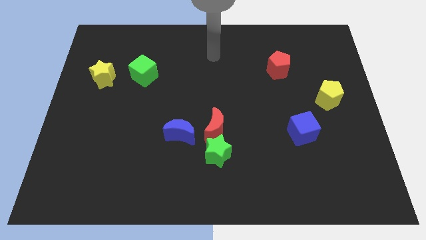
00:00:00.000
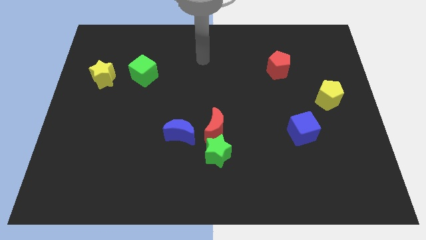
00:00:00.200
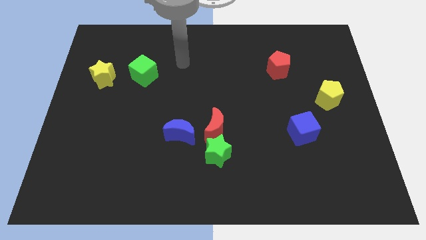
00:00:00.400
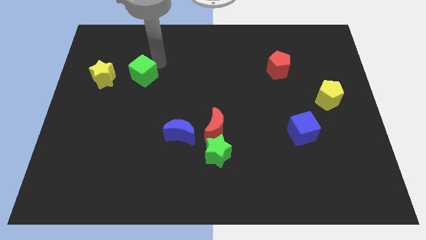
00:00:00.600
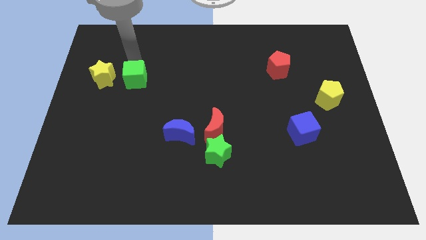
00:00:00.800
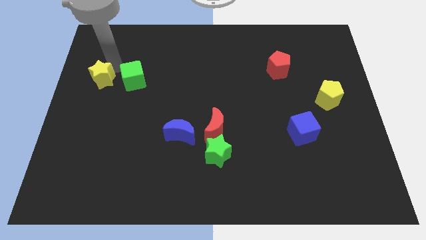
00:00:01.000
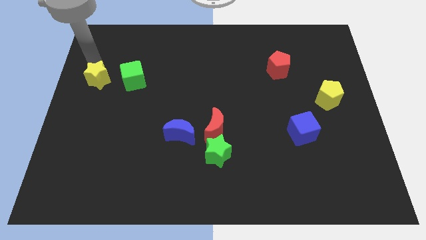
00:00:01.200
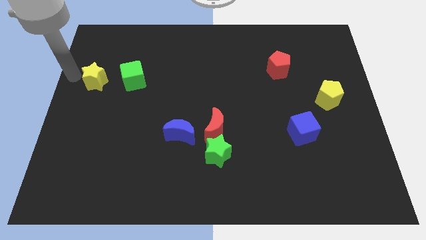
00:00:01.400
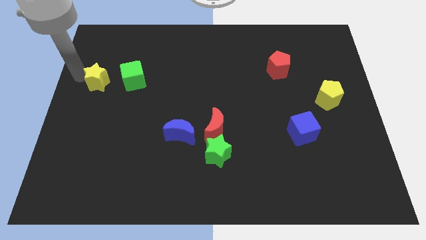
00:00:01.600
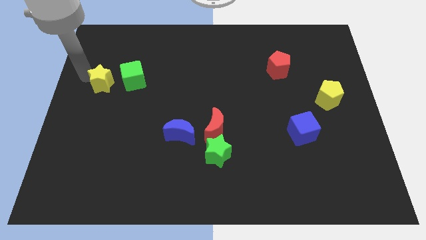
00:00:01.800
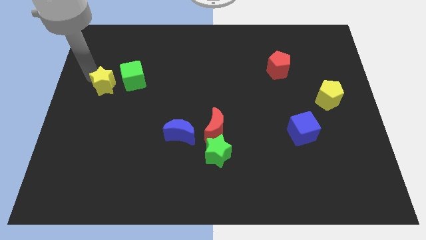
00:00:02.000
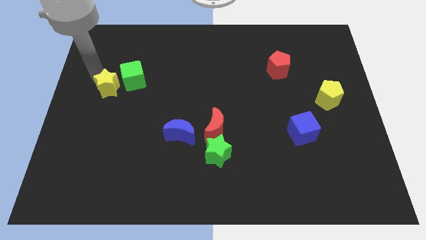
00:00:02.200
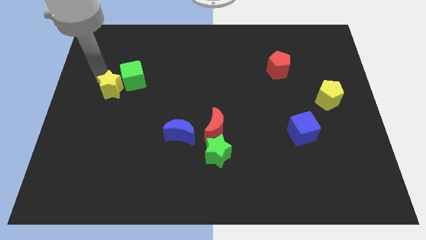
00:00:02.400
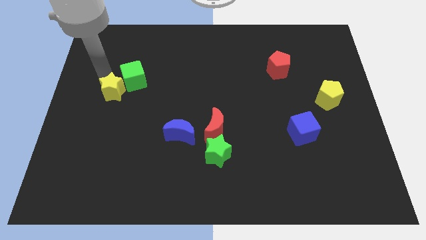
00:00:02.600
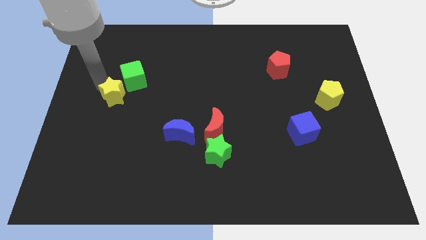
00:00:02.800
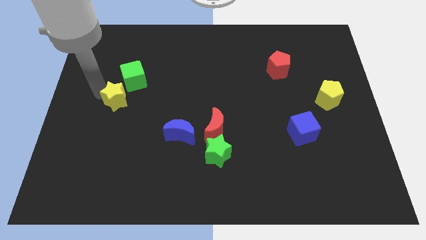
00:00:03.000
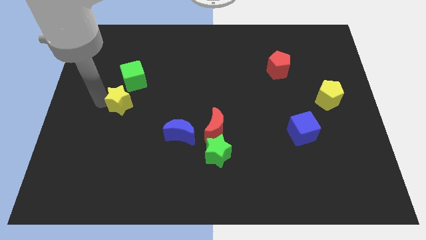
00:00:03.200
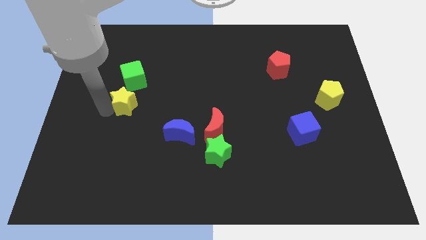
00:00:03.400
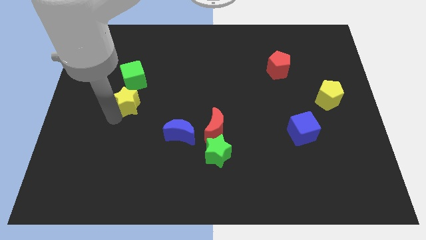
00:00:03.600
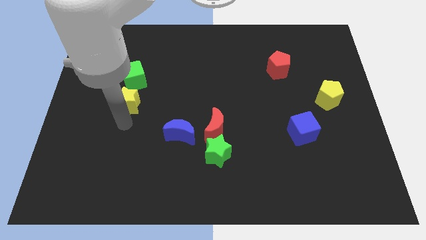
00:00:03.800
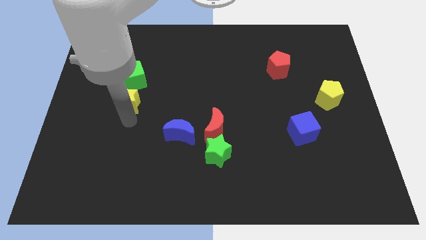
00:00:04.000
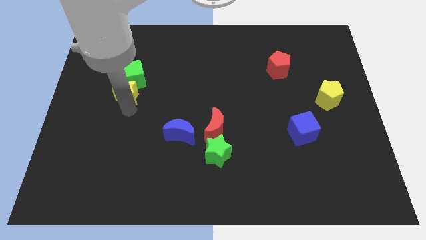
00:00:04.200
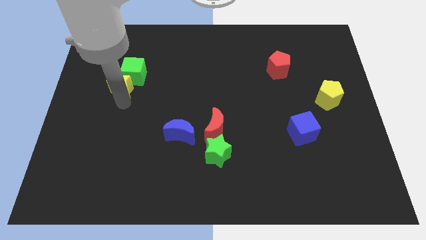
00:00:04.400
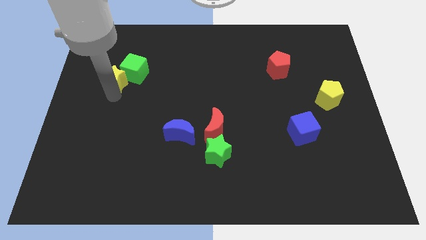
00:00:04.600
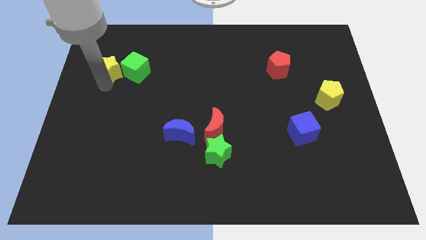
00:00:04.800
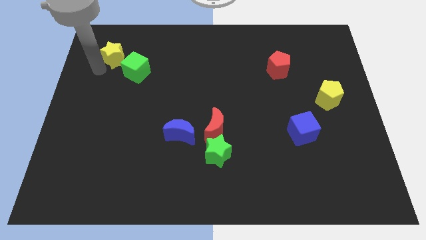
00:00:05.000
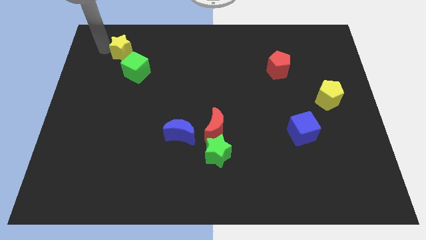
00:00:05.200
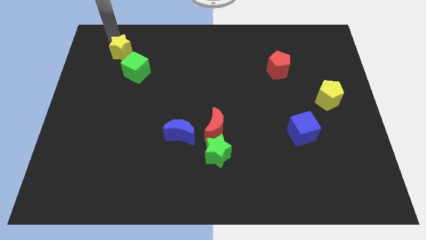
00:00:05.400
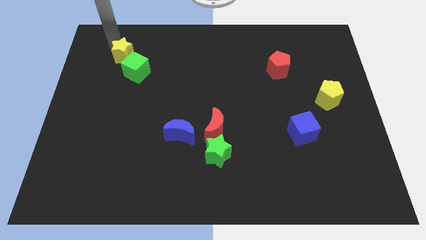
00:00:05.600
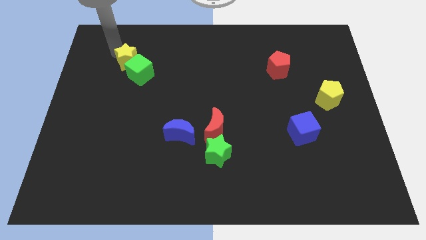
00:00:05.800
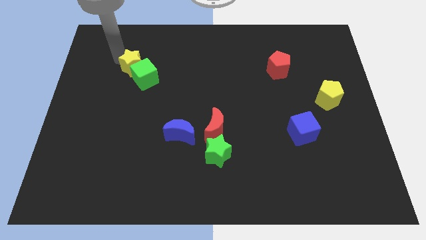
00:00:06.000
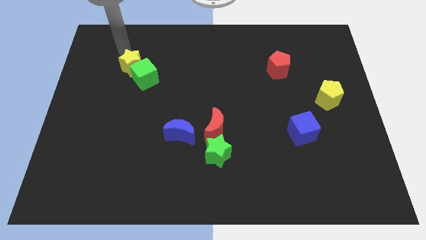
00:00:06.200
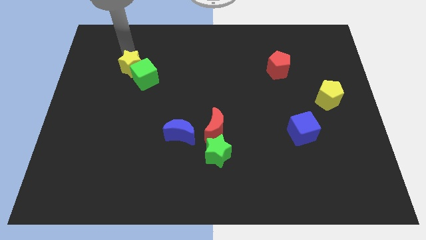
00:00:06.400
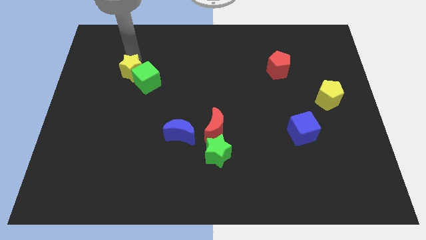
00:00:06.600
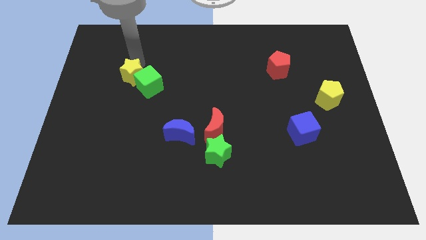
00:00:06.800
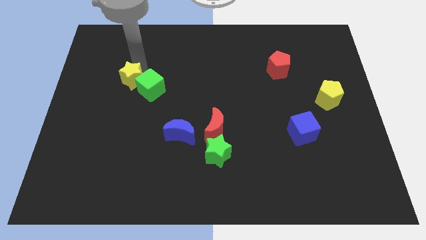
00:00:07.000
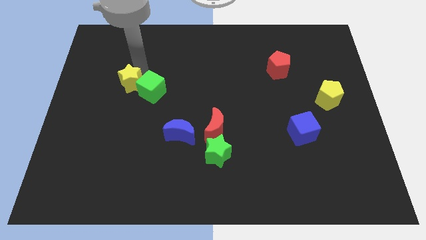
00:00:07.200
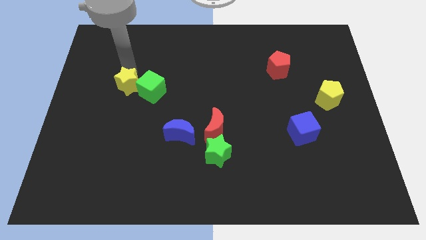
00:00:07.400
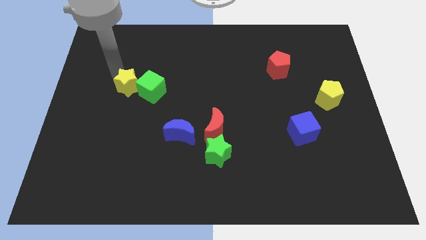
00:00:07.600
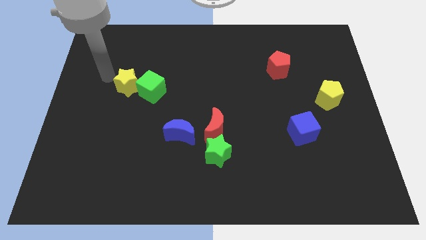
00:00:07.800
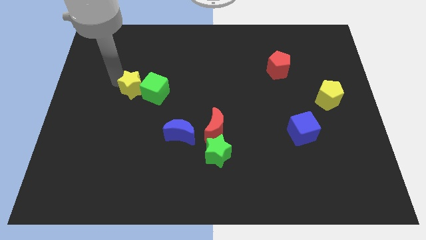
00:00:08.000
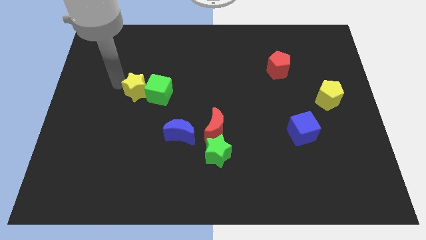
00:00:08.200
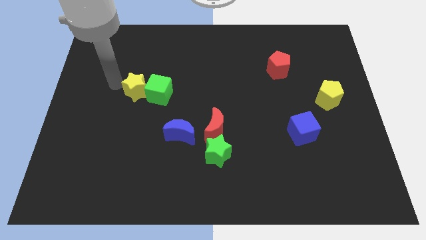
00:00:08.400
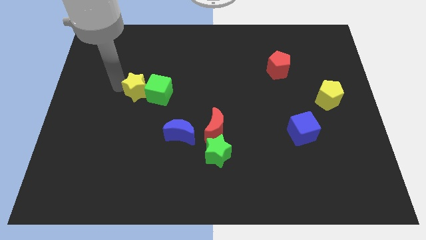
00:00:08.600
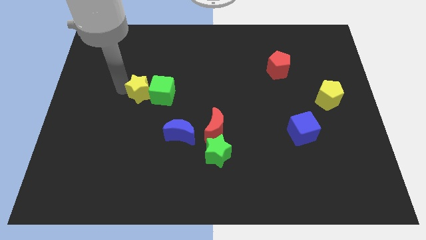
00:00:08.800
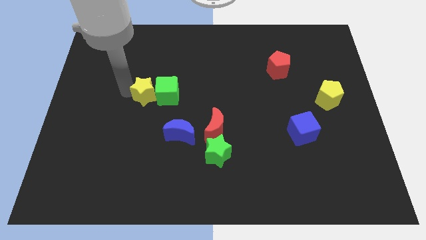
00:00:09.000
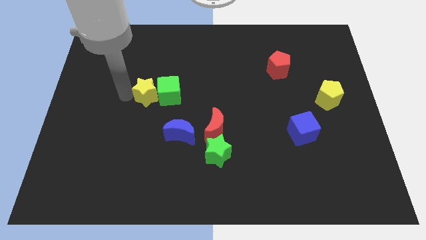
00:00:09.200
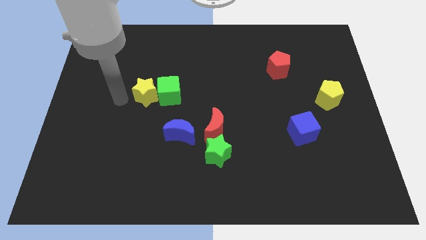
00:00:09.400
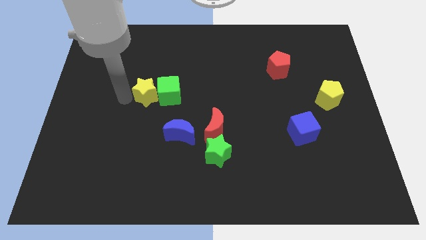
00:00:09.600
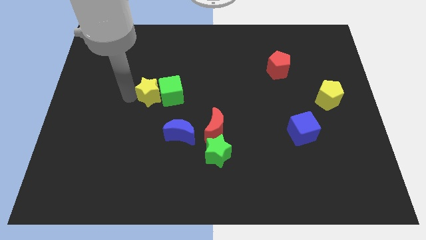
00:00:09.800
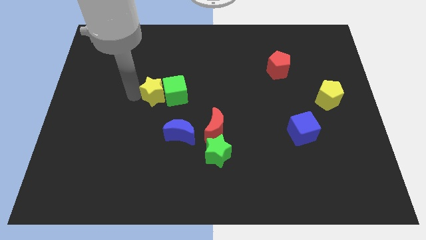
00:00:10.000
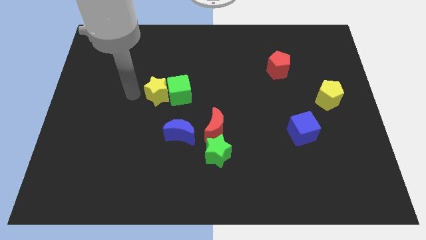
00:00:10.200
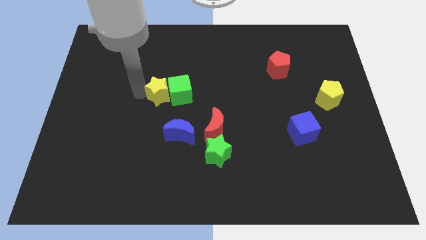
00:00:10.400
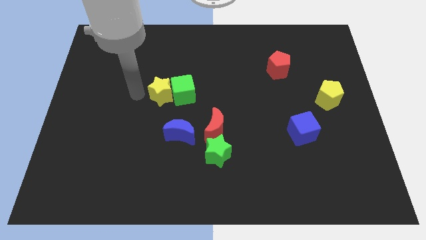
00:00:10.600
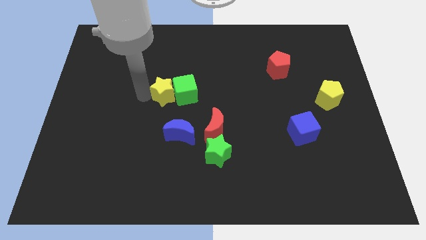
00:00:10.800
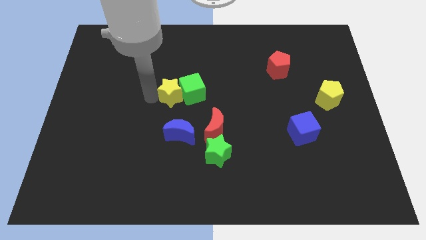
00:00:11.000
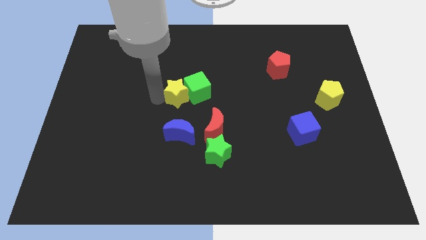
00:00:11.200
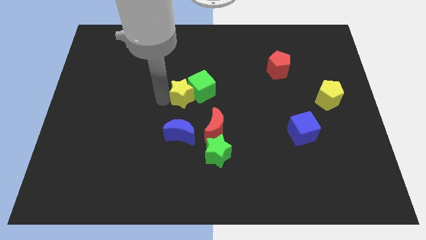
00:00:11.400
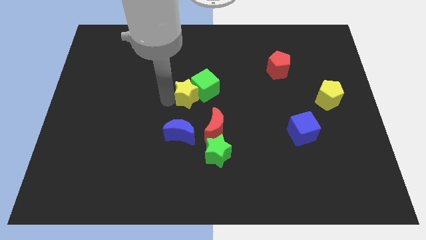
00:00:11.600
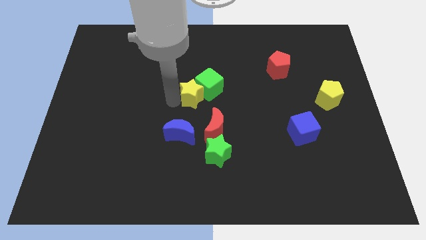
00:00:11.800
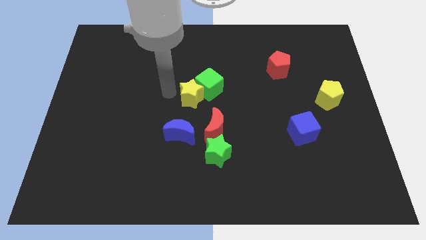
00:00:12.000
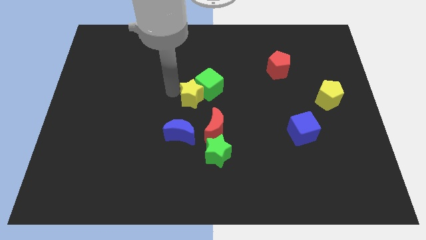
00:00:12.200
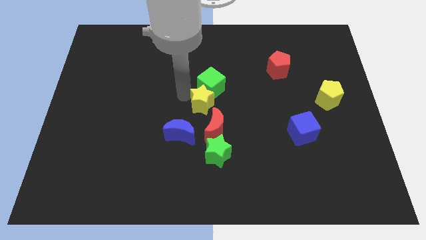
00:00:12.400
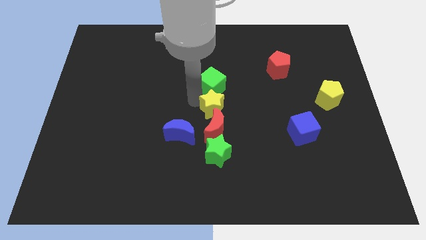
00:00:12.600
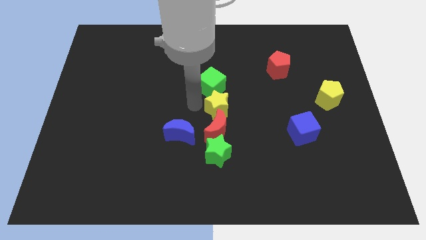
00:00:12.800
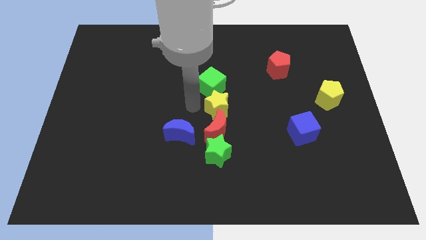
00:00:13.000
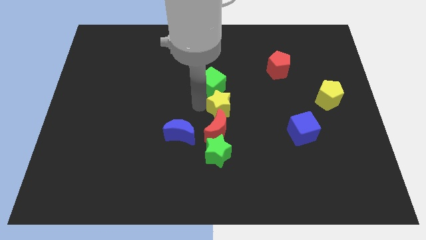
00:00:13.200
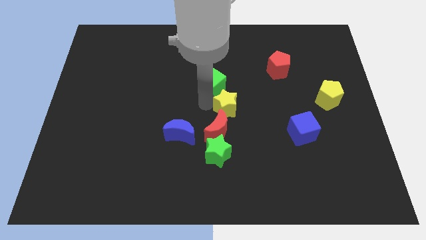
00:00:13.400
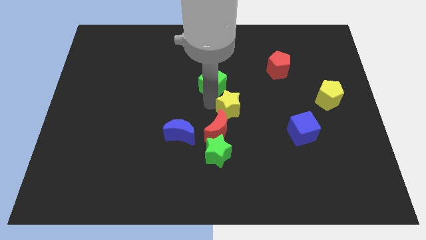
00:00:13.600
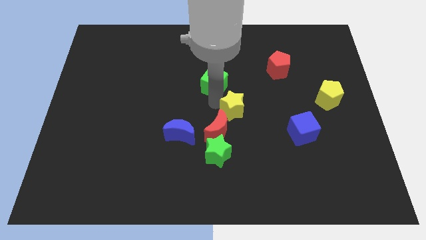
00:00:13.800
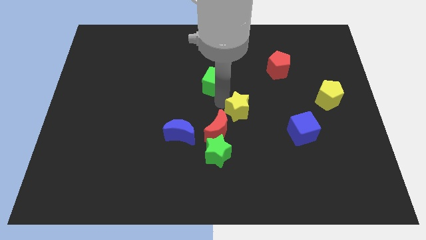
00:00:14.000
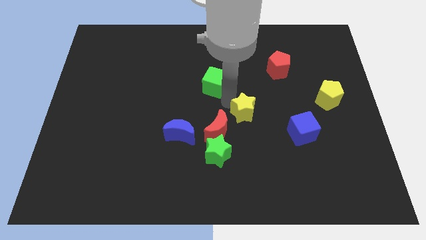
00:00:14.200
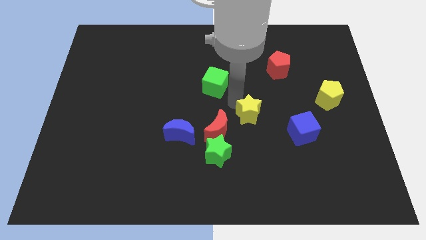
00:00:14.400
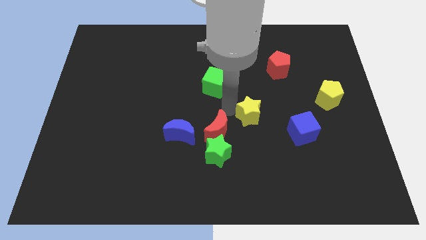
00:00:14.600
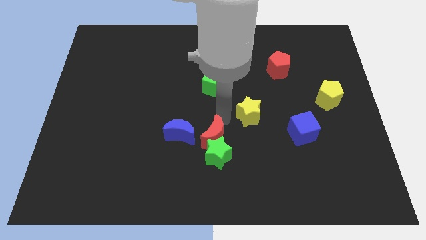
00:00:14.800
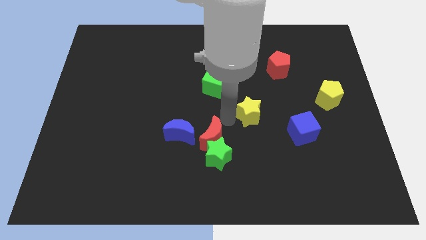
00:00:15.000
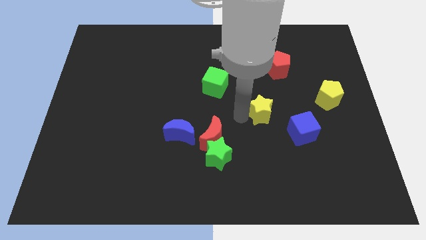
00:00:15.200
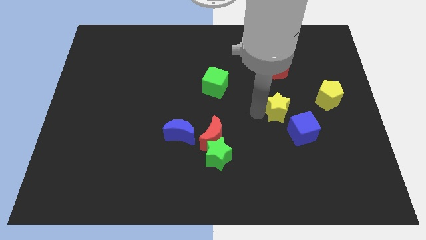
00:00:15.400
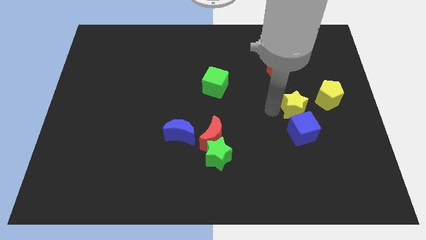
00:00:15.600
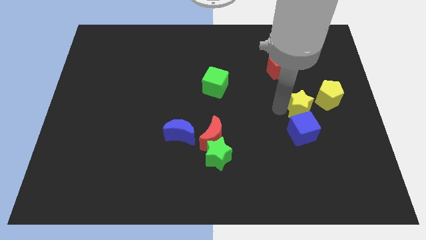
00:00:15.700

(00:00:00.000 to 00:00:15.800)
push the yellow star to the top right of the blue cube
